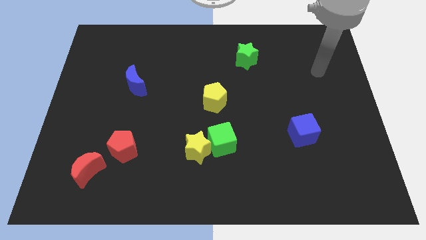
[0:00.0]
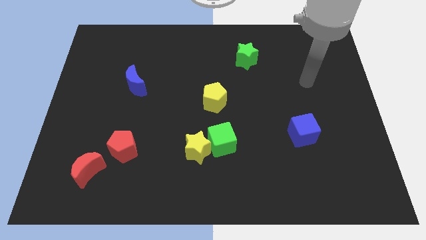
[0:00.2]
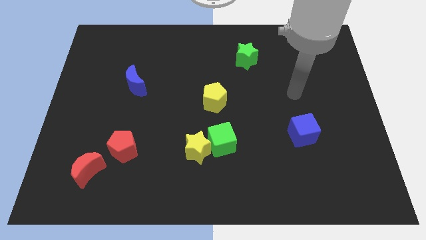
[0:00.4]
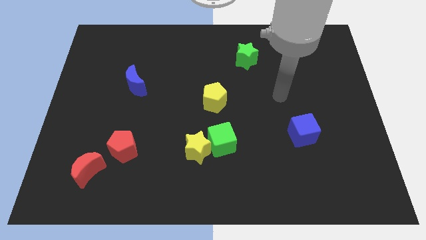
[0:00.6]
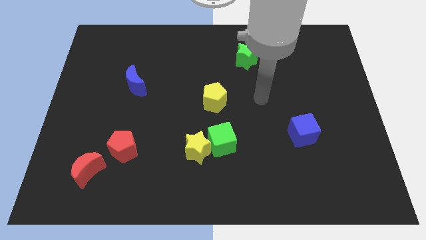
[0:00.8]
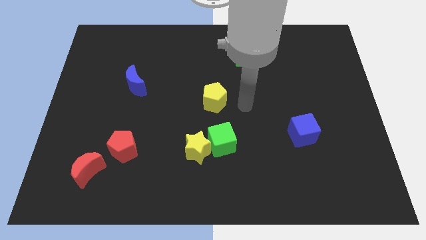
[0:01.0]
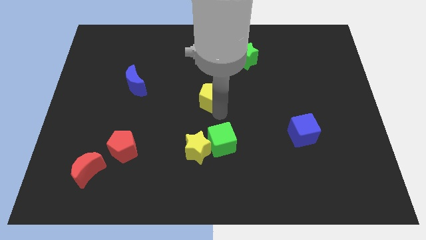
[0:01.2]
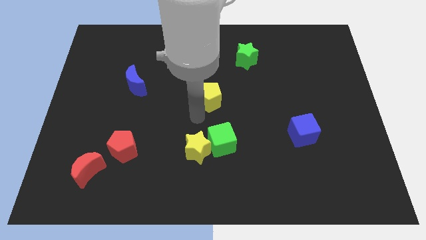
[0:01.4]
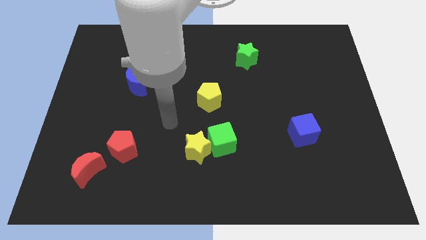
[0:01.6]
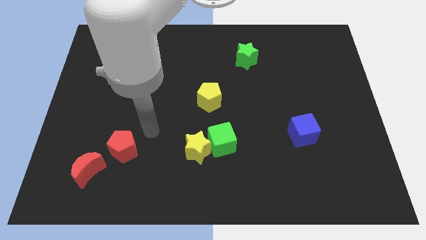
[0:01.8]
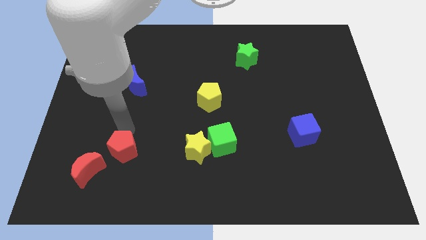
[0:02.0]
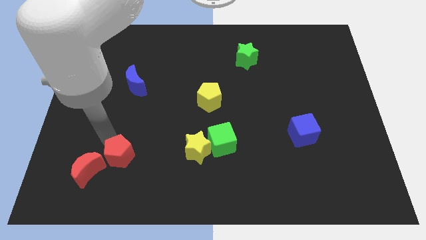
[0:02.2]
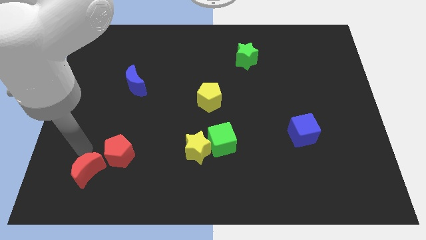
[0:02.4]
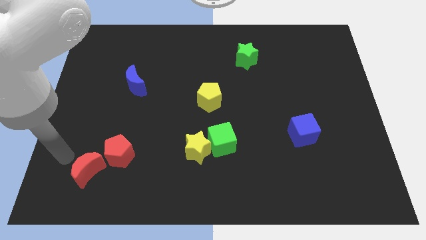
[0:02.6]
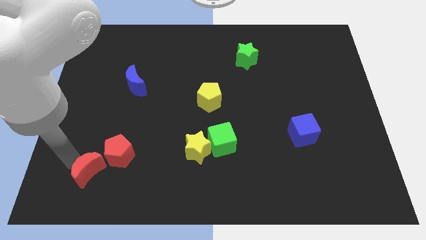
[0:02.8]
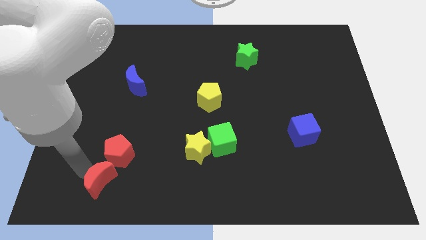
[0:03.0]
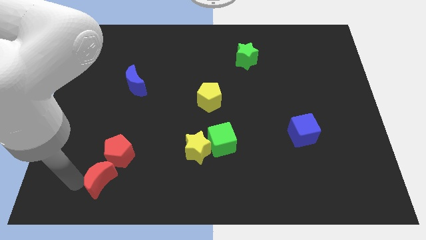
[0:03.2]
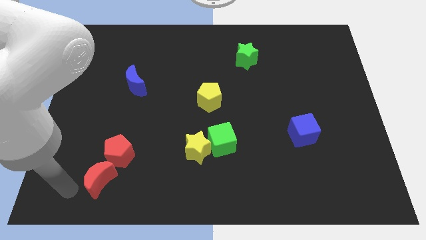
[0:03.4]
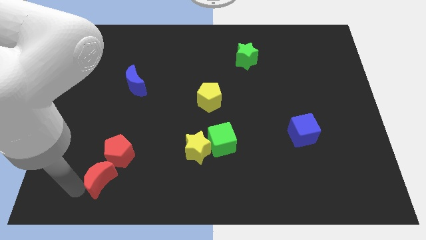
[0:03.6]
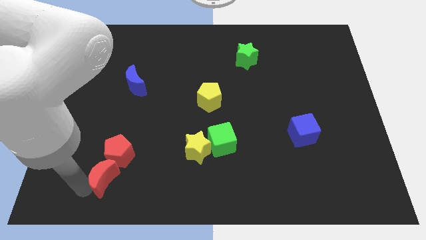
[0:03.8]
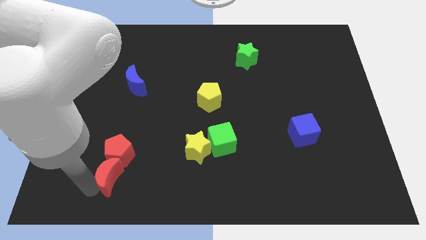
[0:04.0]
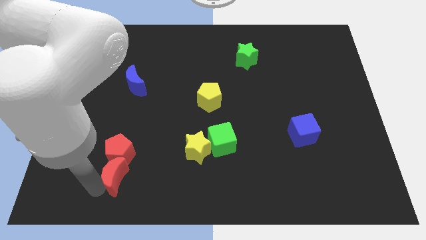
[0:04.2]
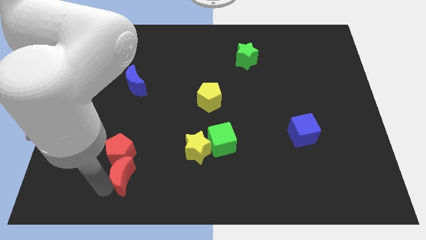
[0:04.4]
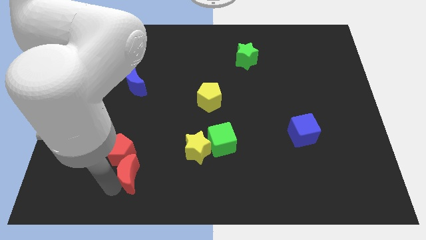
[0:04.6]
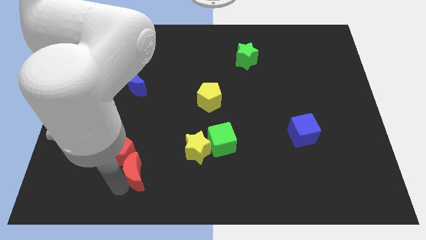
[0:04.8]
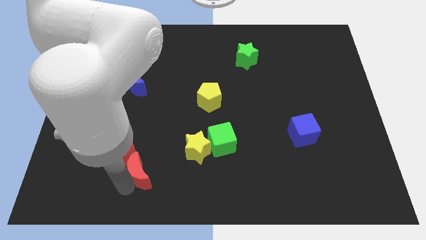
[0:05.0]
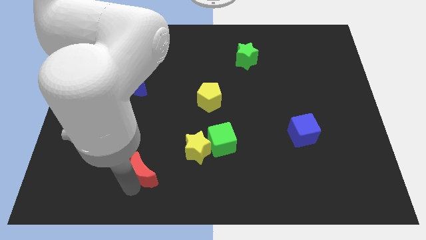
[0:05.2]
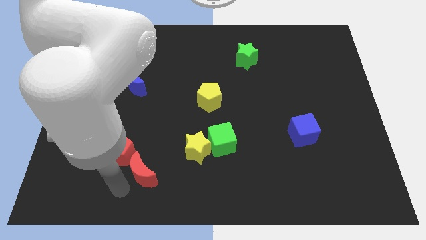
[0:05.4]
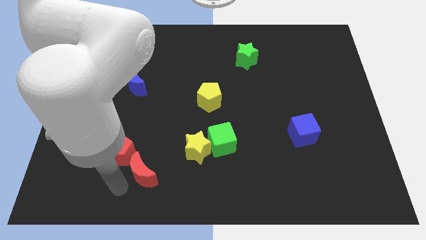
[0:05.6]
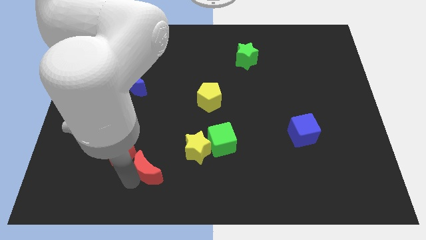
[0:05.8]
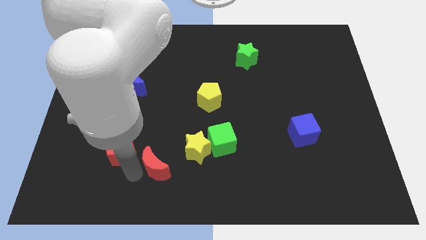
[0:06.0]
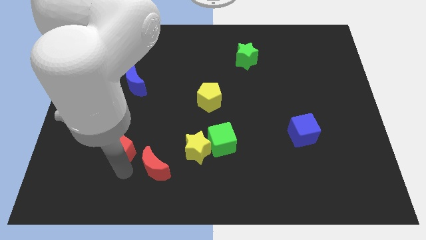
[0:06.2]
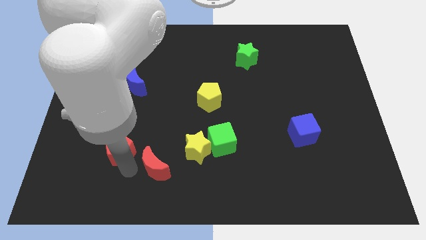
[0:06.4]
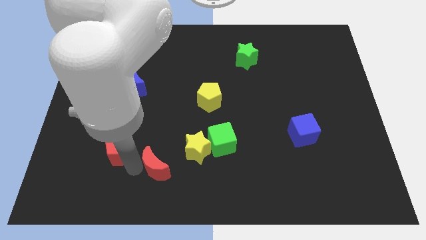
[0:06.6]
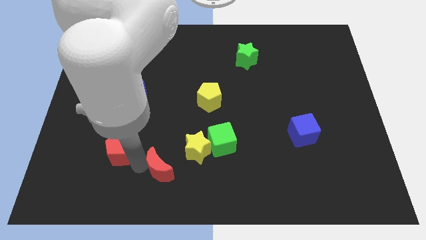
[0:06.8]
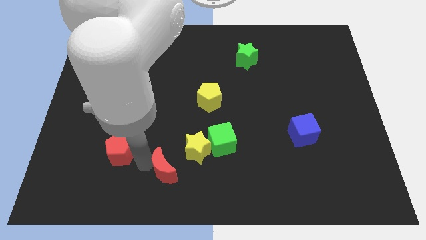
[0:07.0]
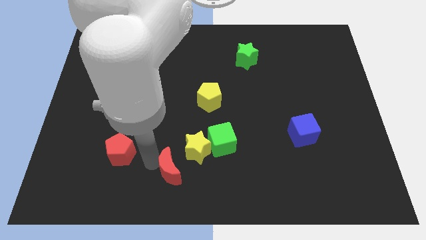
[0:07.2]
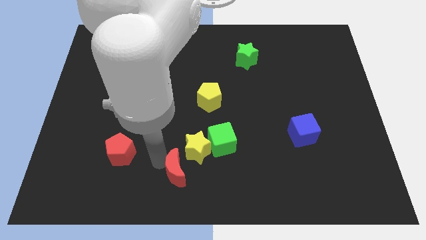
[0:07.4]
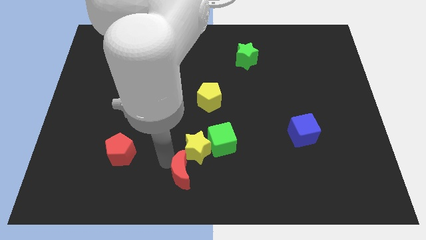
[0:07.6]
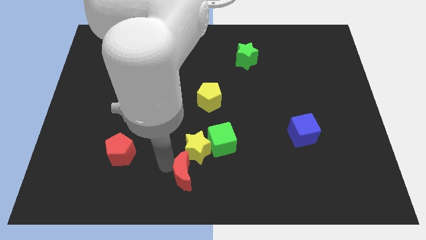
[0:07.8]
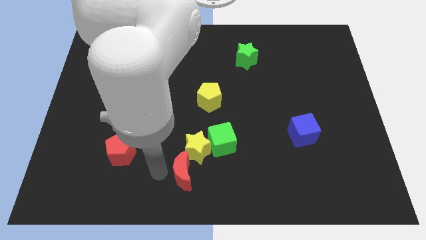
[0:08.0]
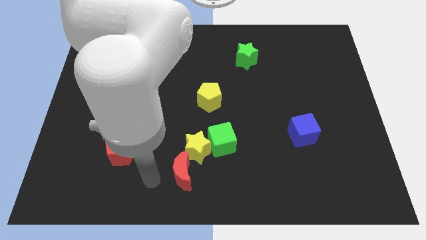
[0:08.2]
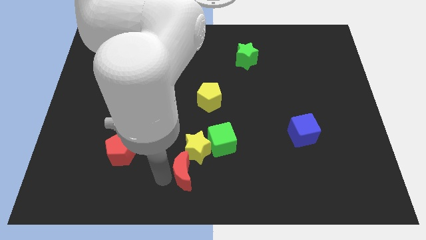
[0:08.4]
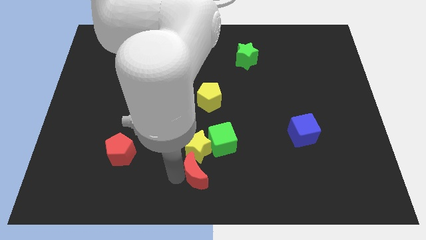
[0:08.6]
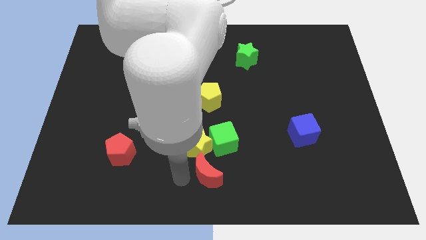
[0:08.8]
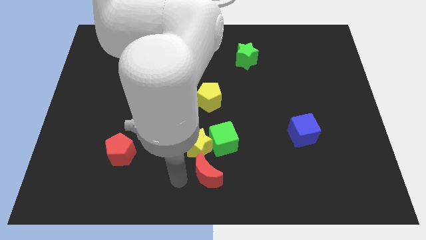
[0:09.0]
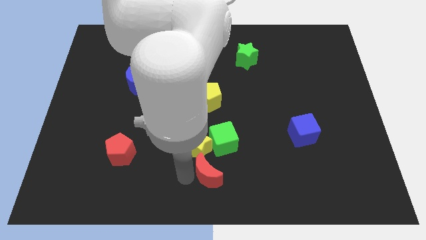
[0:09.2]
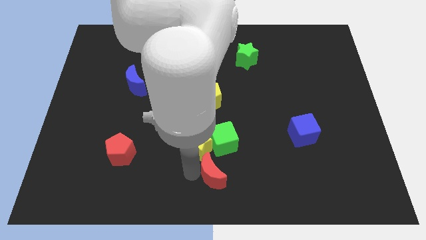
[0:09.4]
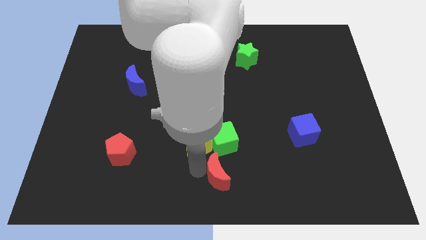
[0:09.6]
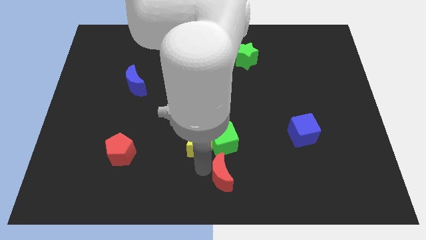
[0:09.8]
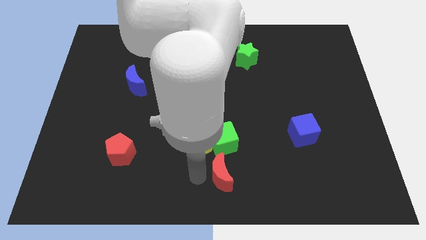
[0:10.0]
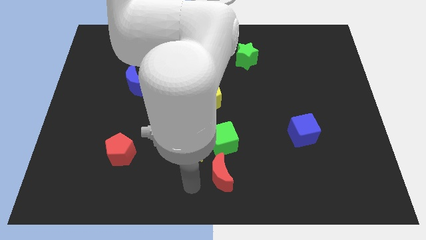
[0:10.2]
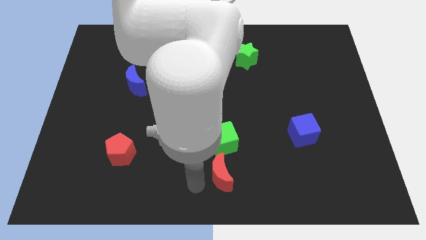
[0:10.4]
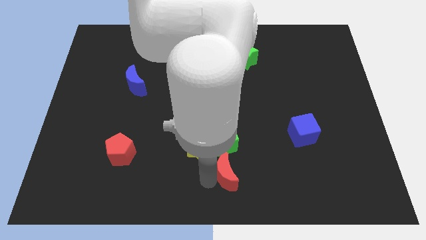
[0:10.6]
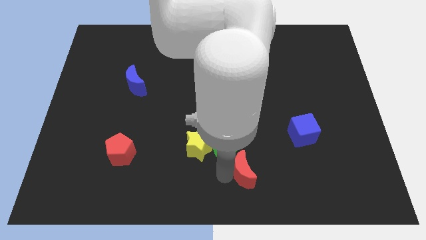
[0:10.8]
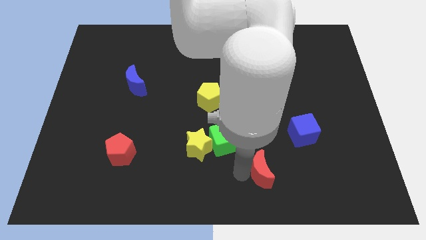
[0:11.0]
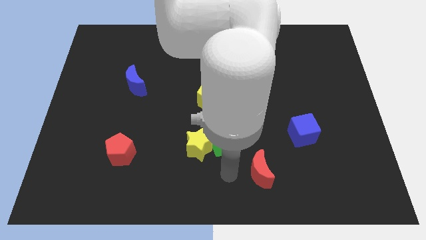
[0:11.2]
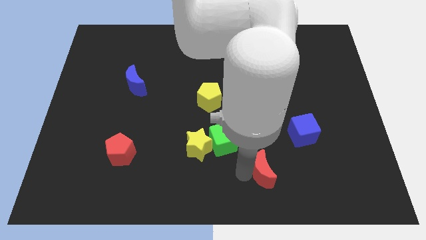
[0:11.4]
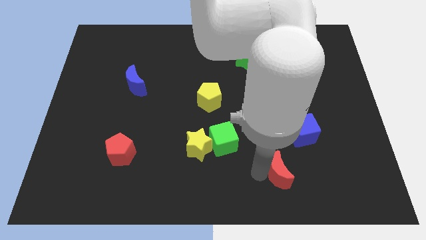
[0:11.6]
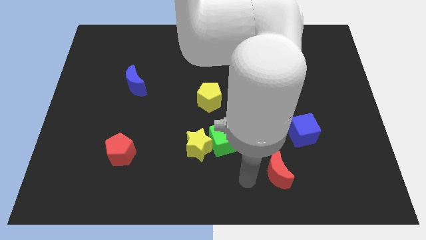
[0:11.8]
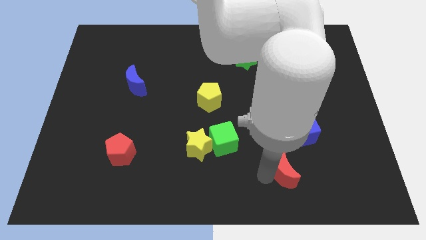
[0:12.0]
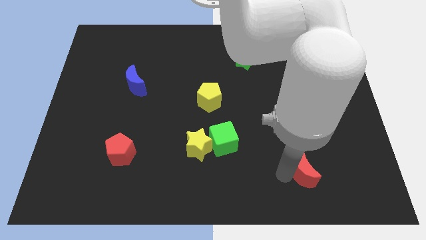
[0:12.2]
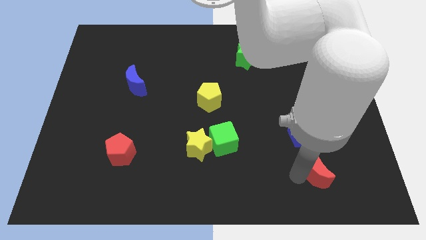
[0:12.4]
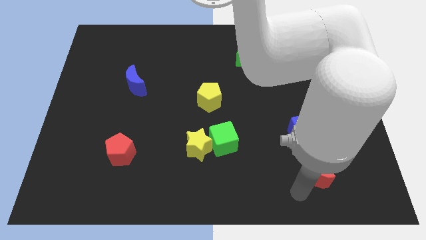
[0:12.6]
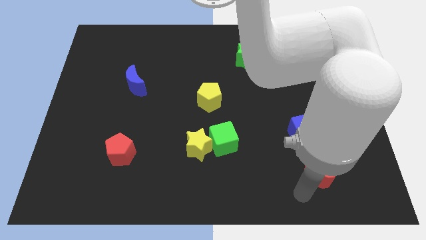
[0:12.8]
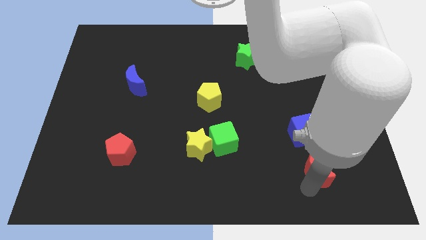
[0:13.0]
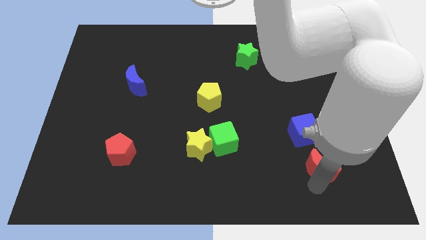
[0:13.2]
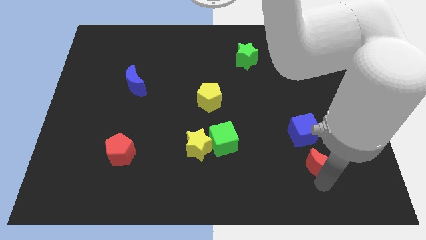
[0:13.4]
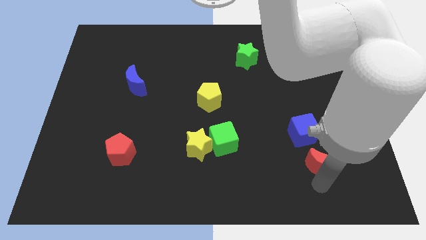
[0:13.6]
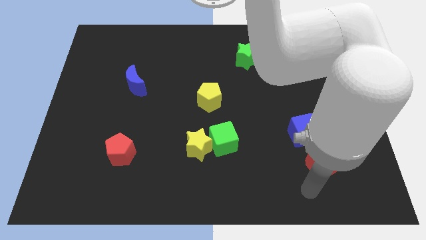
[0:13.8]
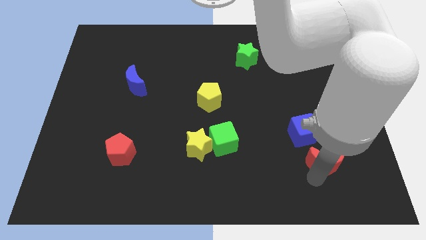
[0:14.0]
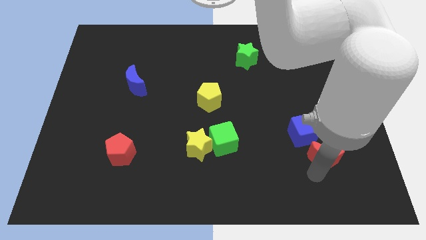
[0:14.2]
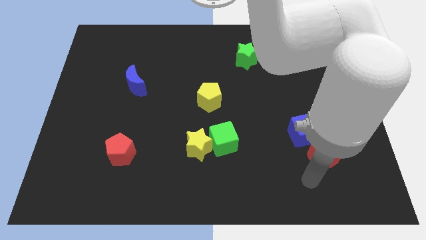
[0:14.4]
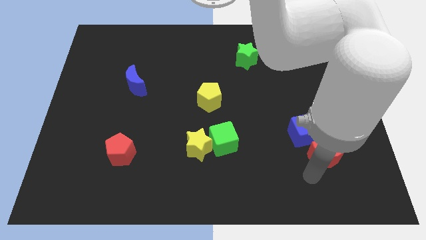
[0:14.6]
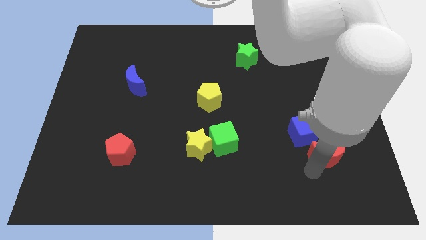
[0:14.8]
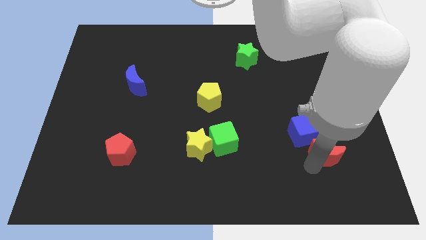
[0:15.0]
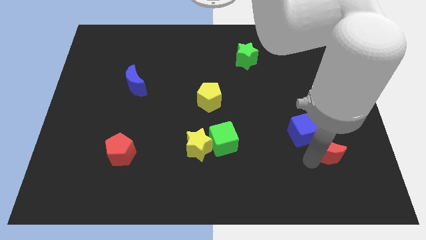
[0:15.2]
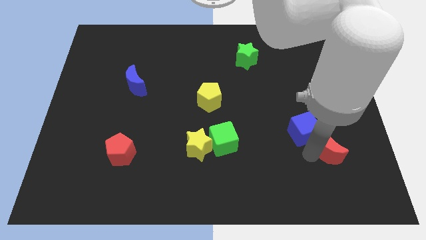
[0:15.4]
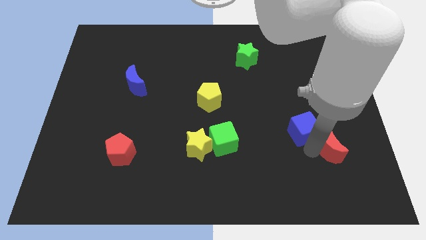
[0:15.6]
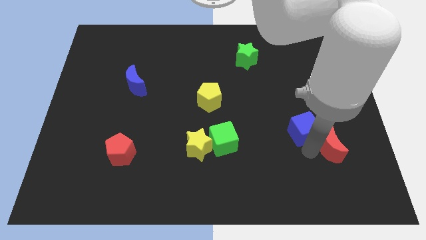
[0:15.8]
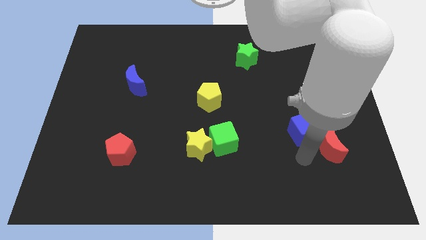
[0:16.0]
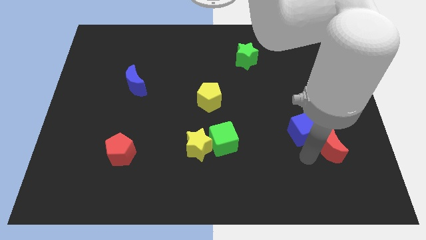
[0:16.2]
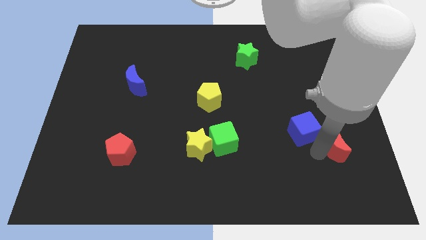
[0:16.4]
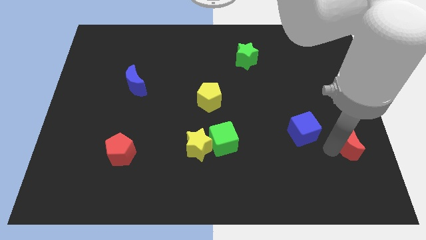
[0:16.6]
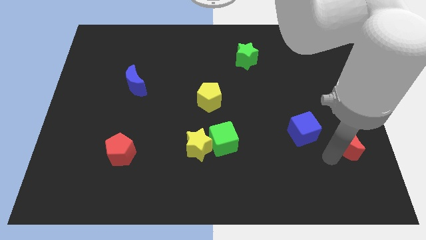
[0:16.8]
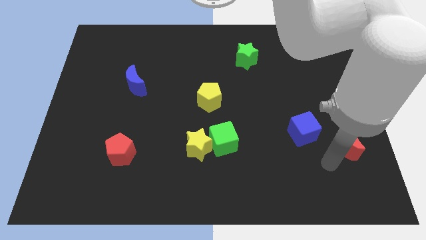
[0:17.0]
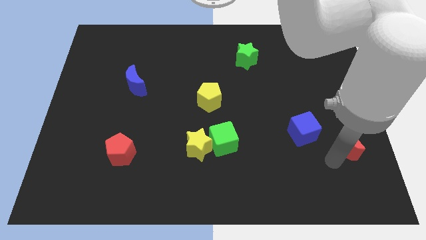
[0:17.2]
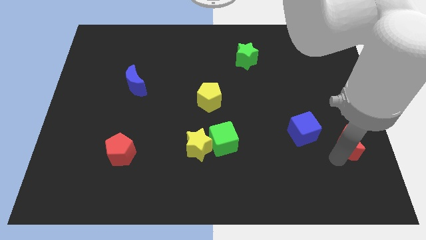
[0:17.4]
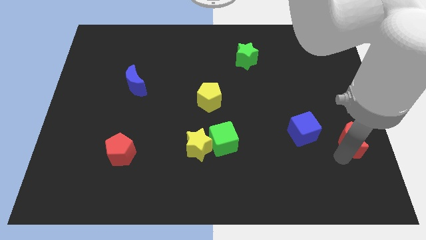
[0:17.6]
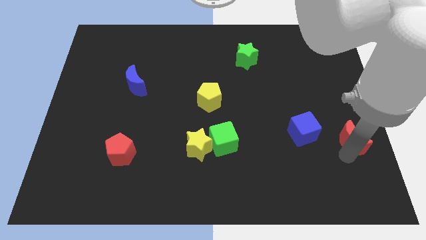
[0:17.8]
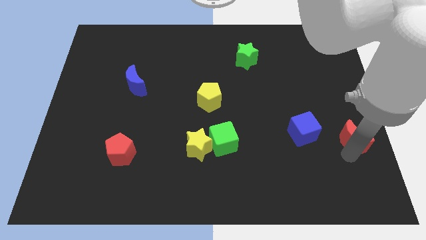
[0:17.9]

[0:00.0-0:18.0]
put the red moon to the right side of the board
